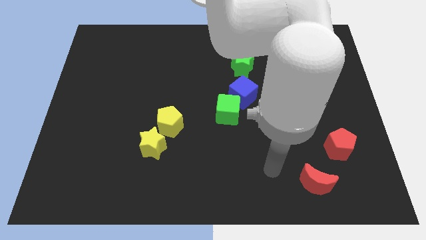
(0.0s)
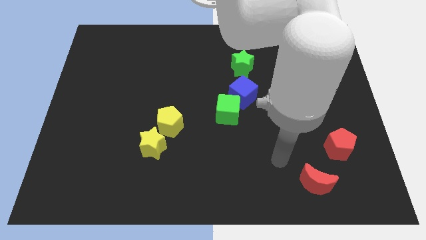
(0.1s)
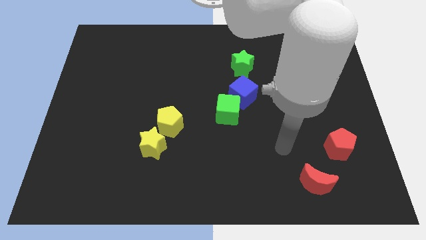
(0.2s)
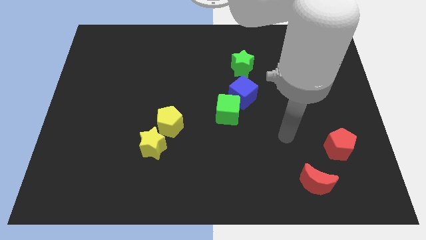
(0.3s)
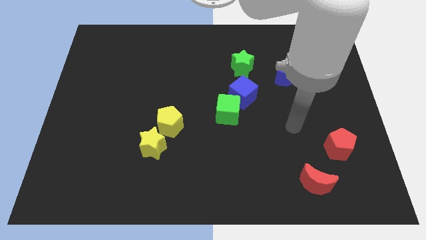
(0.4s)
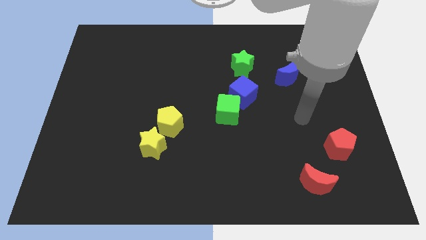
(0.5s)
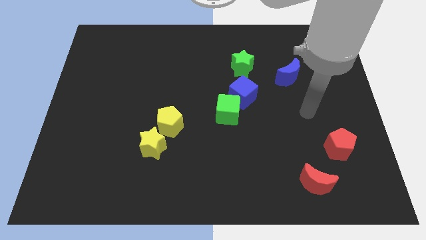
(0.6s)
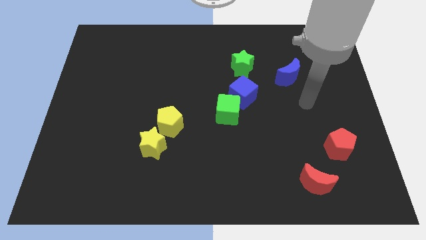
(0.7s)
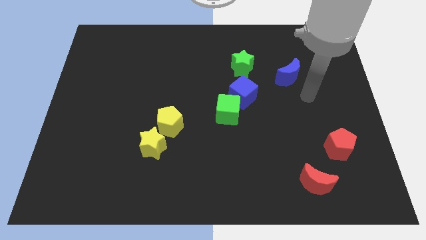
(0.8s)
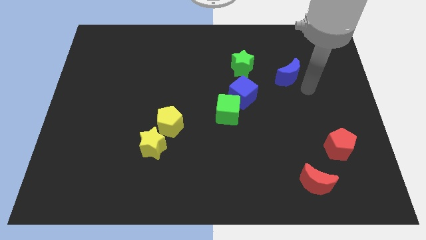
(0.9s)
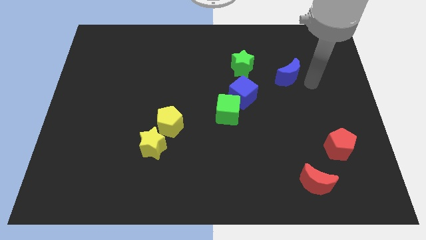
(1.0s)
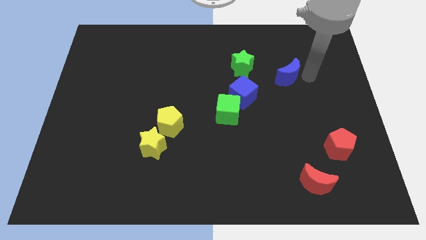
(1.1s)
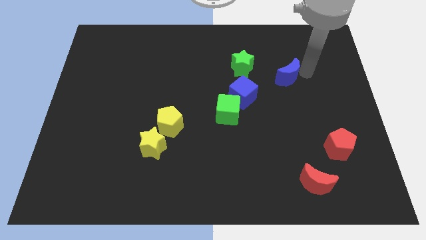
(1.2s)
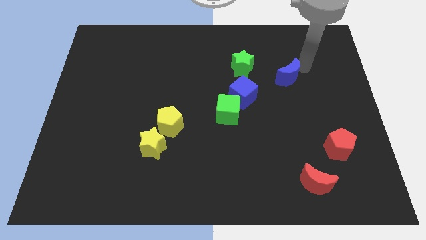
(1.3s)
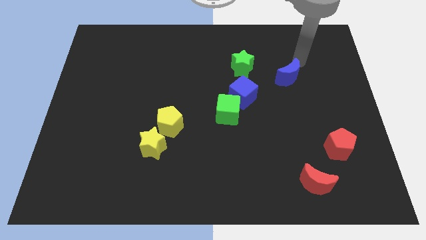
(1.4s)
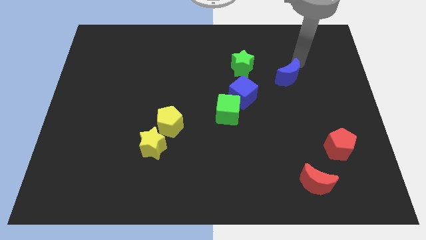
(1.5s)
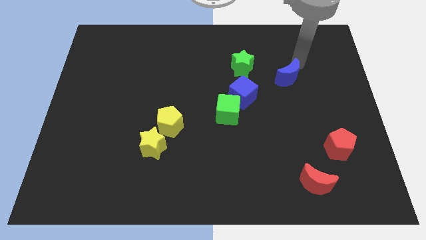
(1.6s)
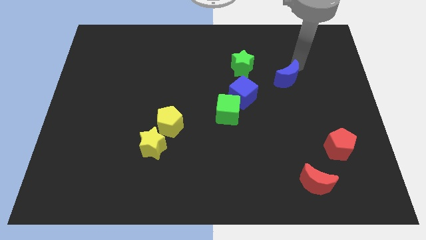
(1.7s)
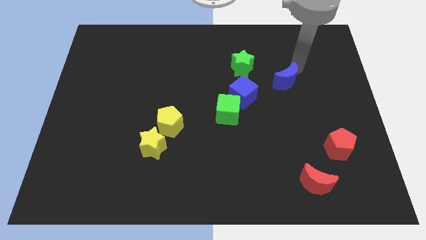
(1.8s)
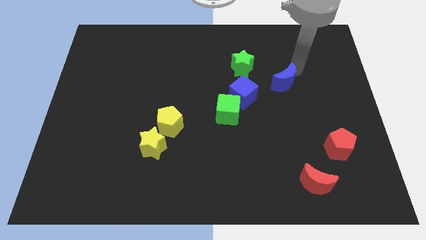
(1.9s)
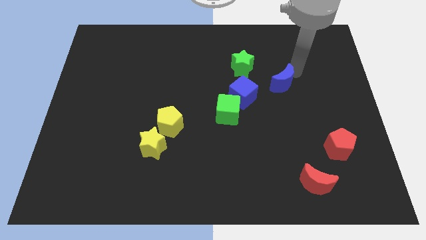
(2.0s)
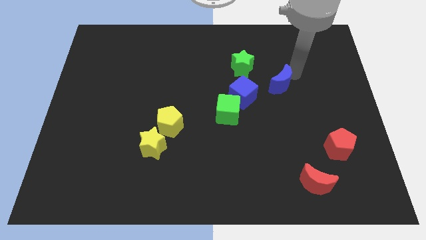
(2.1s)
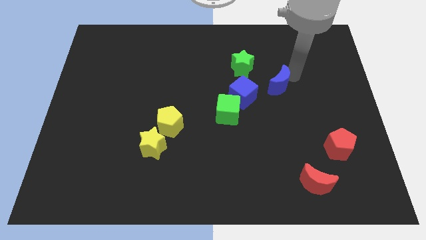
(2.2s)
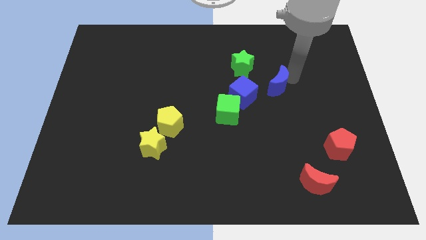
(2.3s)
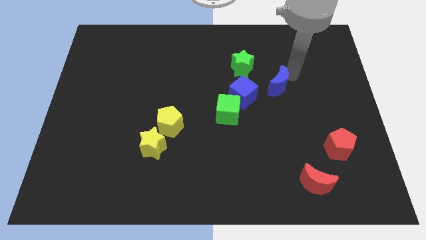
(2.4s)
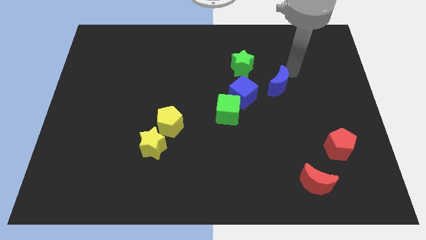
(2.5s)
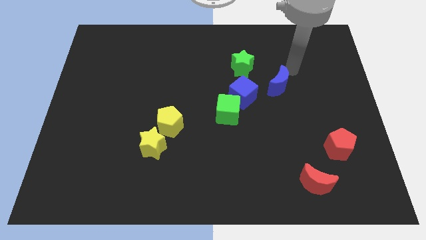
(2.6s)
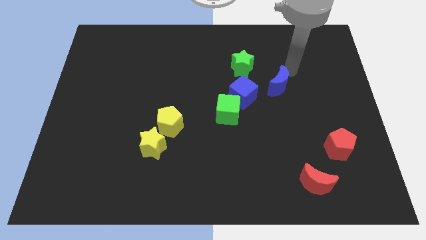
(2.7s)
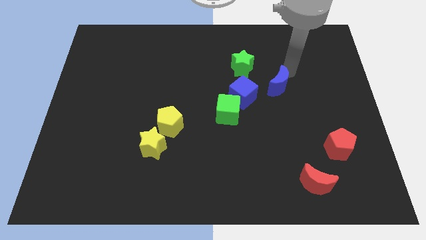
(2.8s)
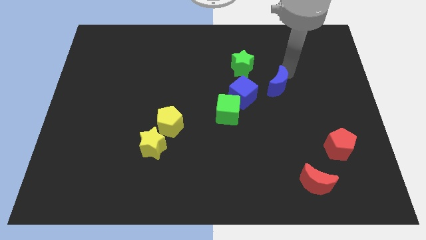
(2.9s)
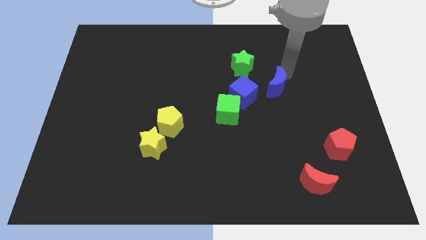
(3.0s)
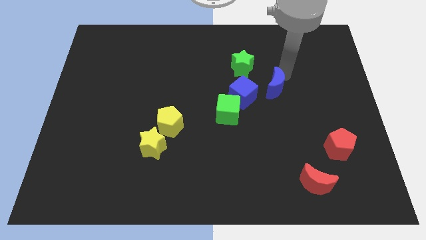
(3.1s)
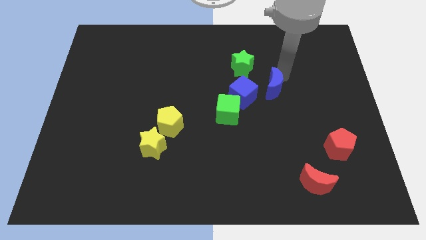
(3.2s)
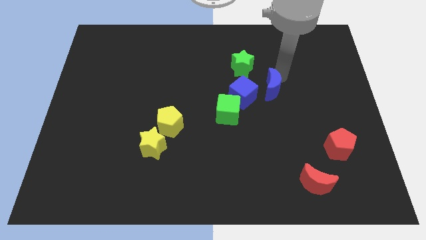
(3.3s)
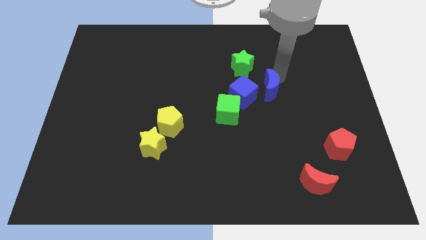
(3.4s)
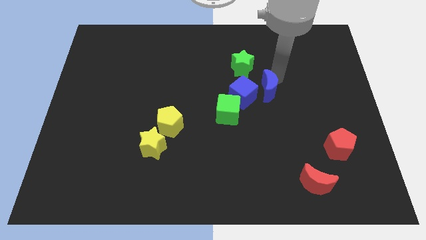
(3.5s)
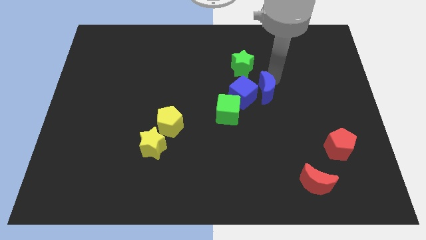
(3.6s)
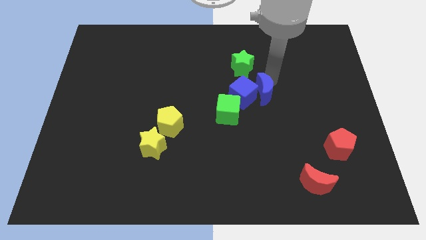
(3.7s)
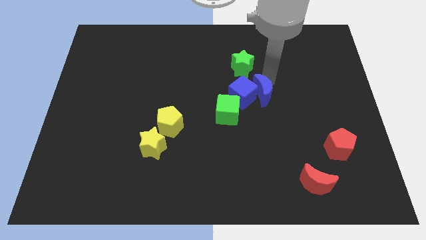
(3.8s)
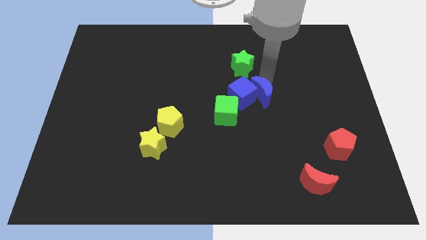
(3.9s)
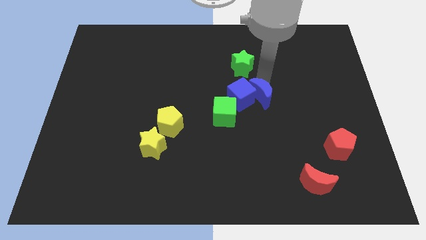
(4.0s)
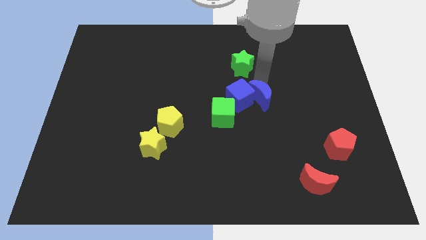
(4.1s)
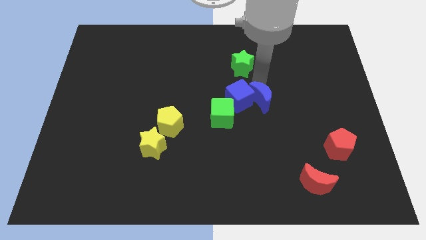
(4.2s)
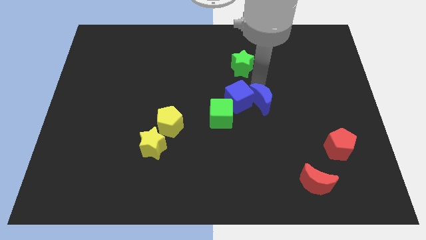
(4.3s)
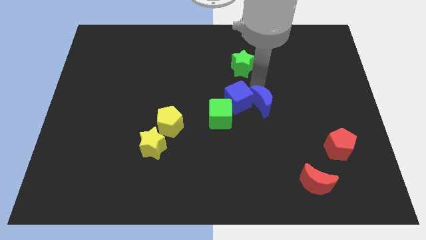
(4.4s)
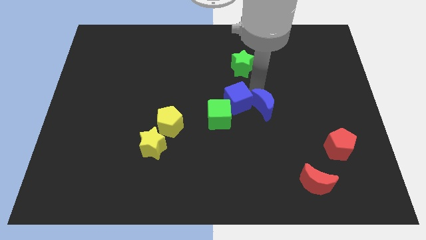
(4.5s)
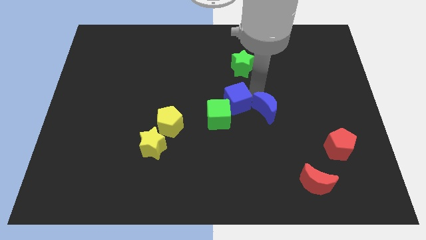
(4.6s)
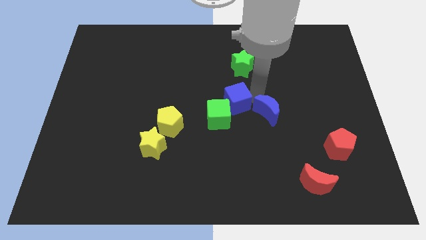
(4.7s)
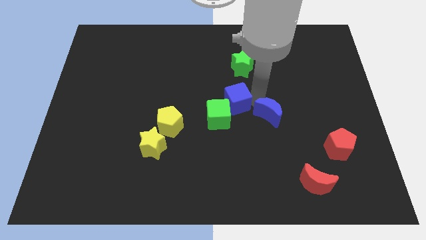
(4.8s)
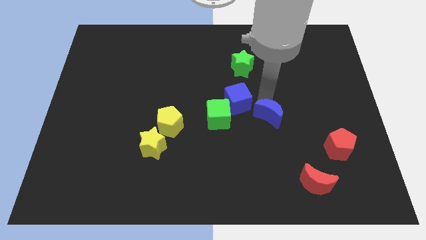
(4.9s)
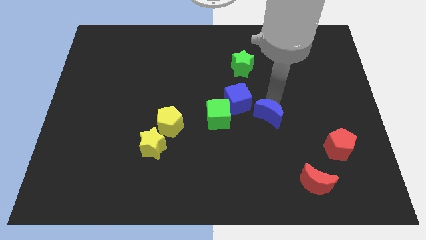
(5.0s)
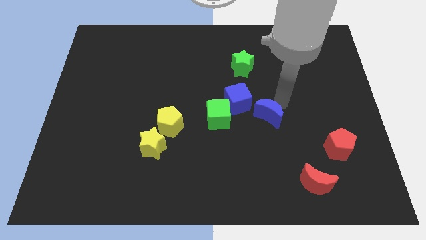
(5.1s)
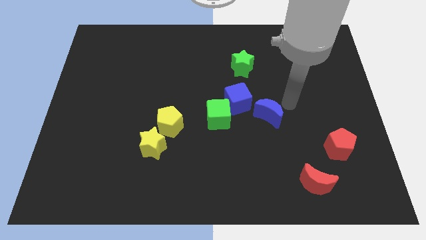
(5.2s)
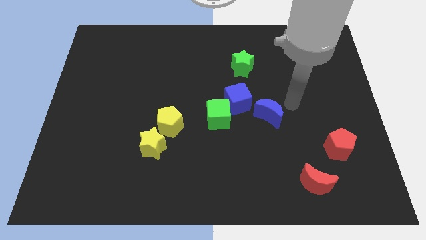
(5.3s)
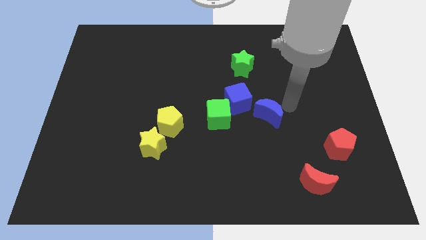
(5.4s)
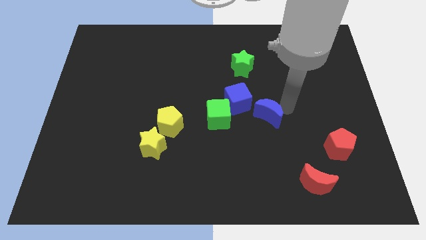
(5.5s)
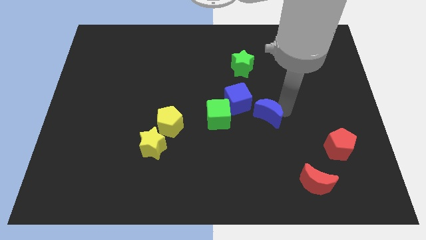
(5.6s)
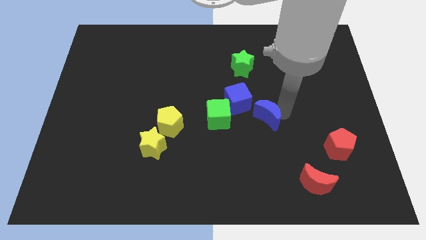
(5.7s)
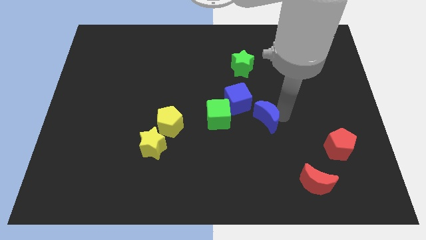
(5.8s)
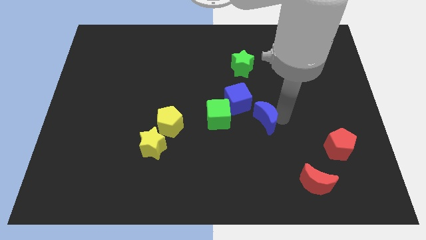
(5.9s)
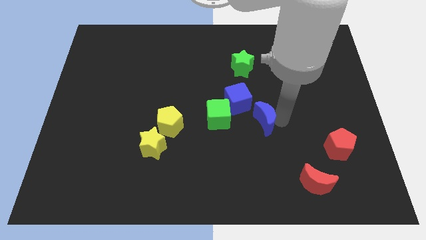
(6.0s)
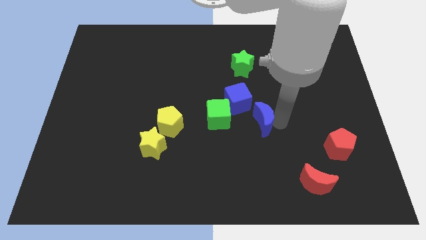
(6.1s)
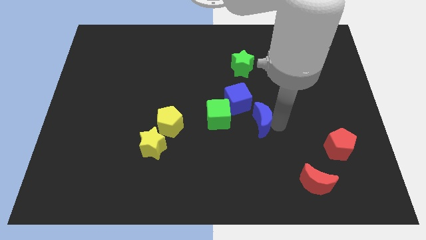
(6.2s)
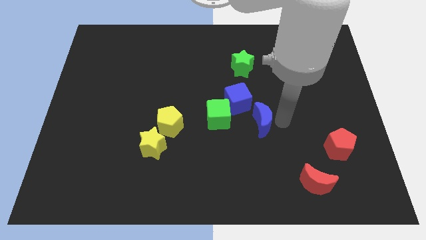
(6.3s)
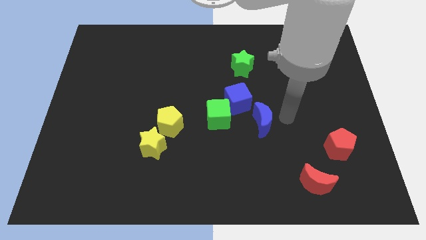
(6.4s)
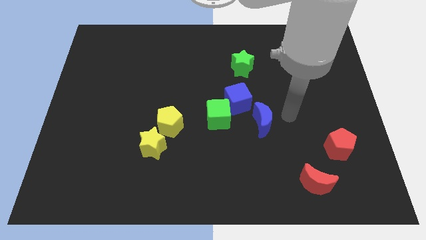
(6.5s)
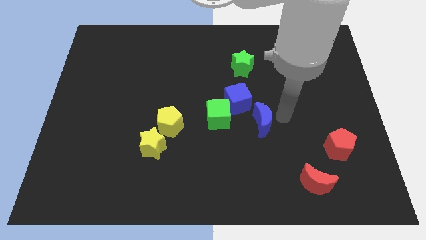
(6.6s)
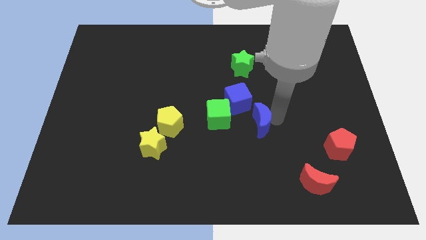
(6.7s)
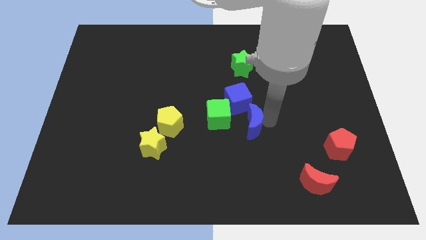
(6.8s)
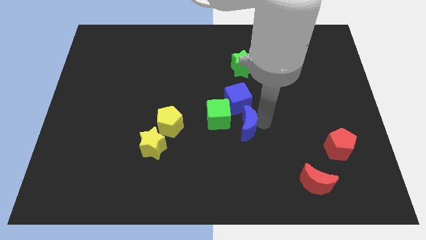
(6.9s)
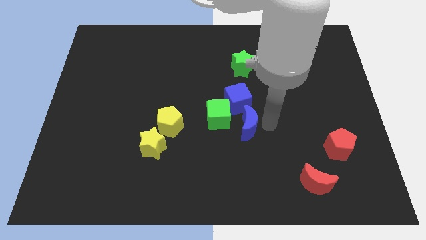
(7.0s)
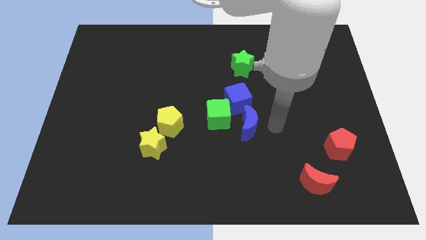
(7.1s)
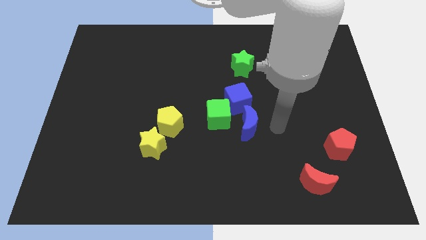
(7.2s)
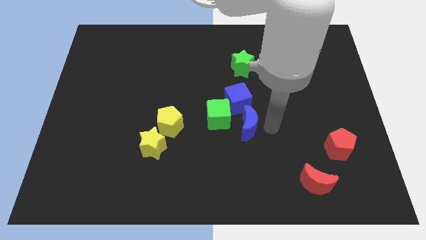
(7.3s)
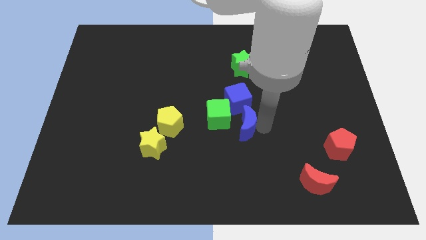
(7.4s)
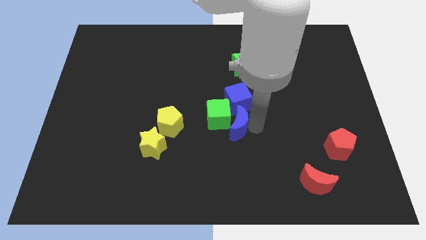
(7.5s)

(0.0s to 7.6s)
push the blue moon to the right of the yellow pentagon

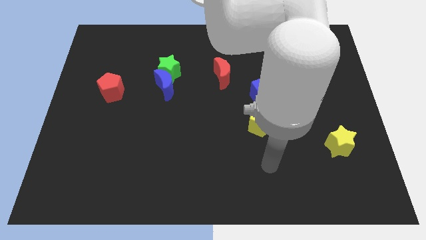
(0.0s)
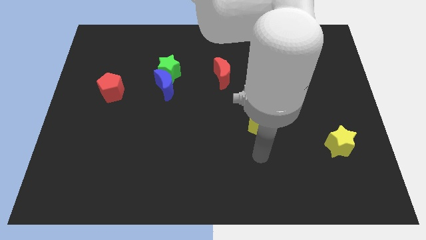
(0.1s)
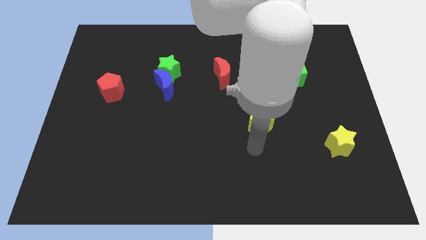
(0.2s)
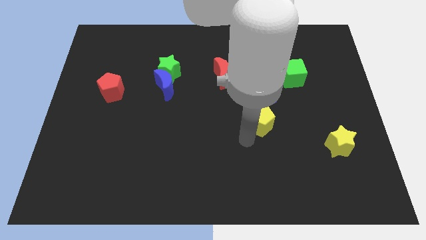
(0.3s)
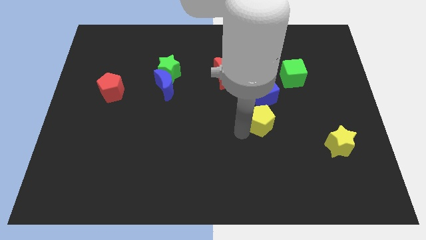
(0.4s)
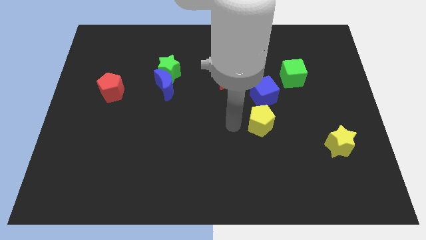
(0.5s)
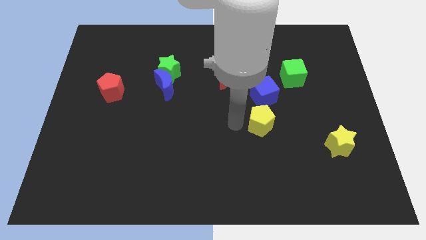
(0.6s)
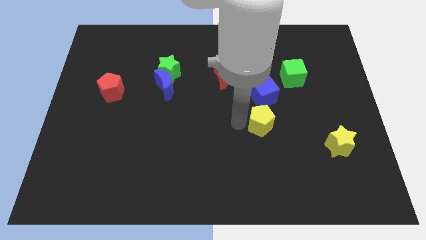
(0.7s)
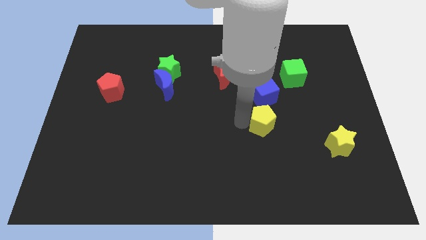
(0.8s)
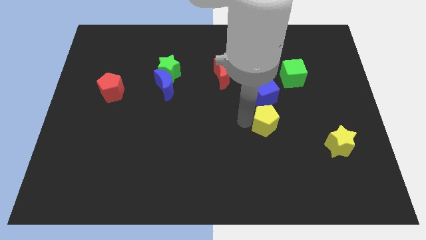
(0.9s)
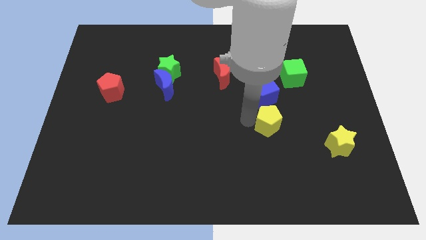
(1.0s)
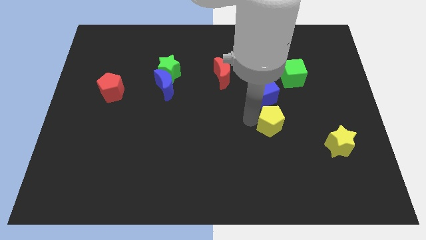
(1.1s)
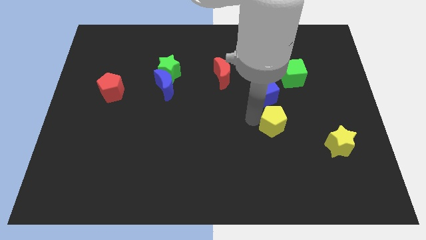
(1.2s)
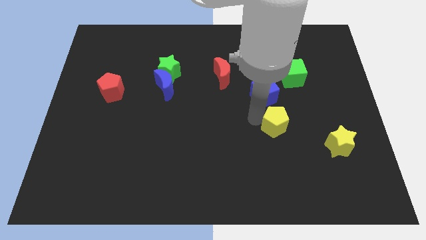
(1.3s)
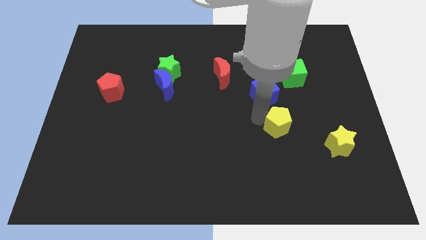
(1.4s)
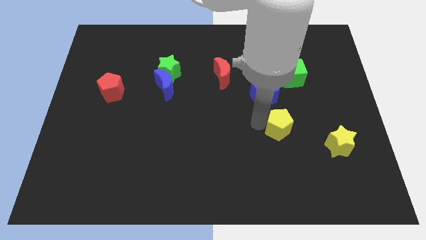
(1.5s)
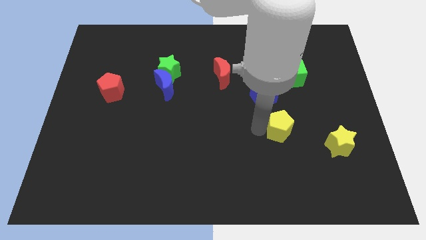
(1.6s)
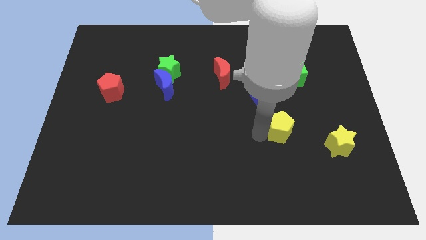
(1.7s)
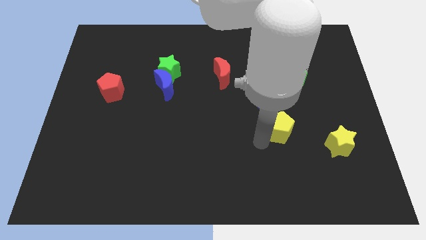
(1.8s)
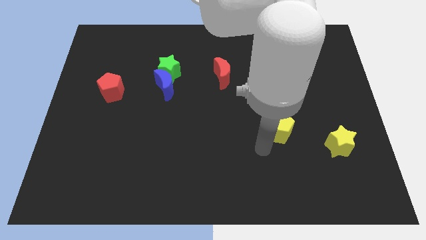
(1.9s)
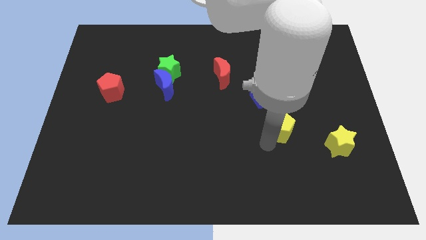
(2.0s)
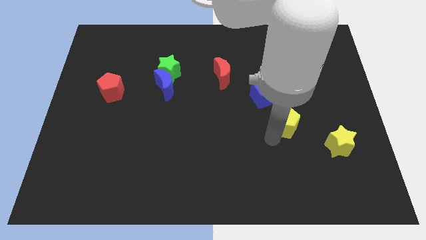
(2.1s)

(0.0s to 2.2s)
move the yellow pentagon to the bottom of the green cube
